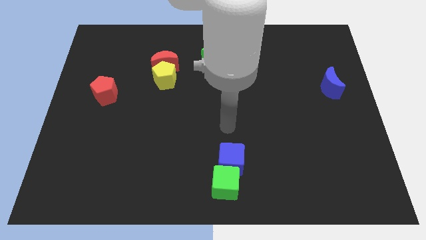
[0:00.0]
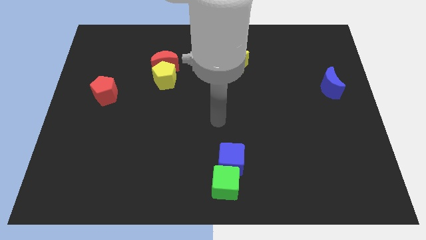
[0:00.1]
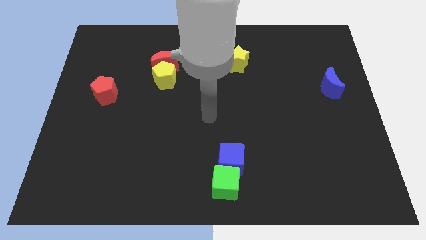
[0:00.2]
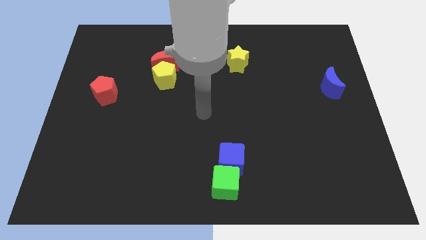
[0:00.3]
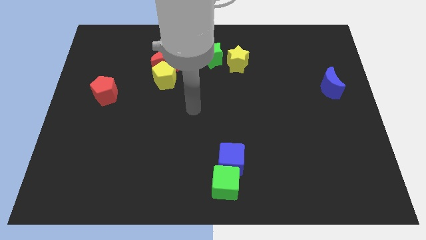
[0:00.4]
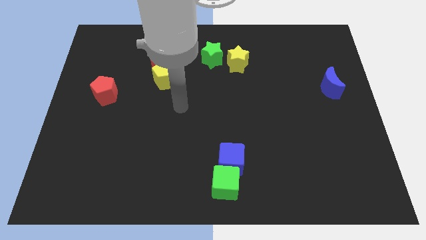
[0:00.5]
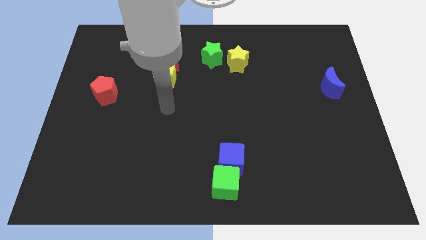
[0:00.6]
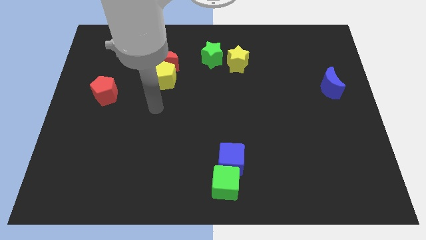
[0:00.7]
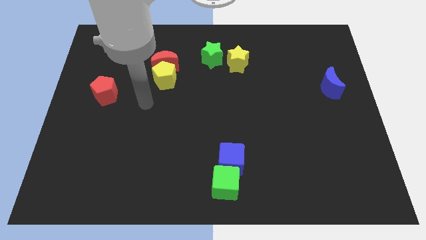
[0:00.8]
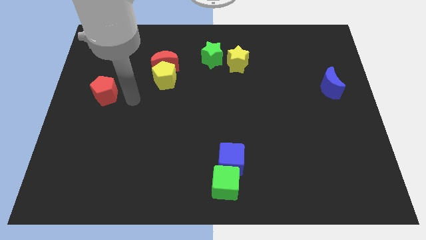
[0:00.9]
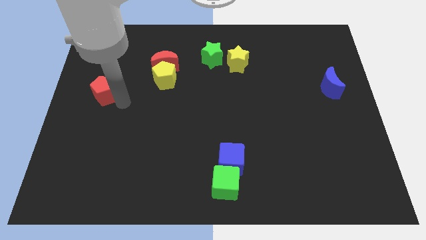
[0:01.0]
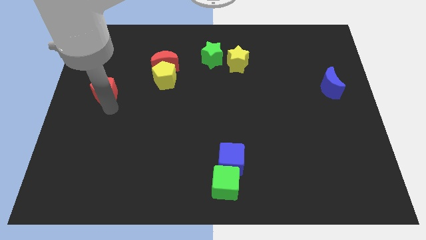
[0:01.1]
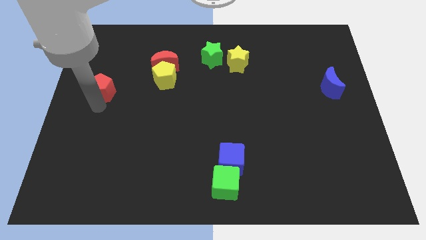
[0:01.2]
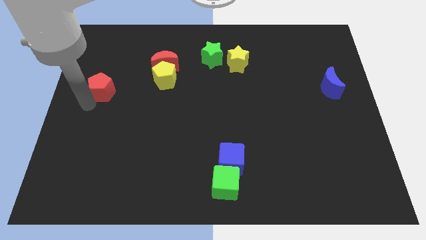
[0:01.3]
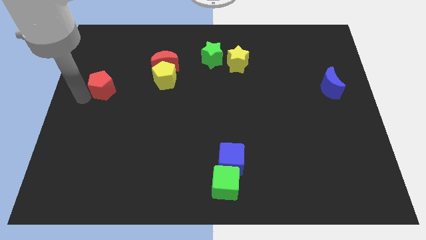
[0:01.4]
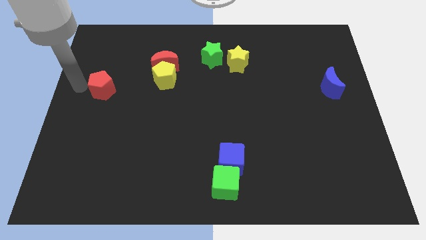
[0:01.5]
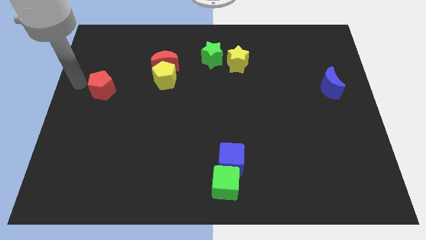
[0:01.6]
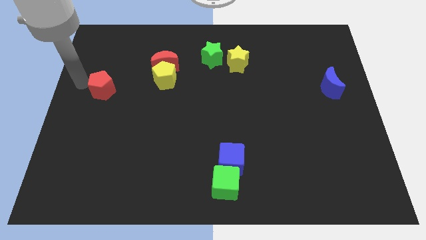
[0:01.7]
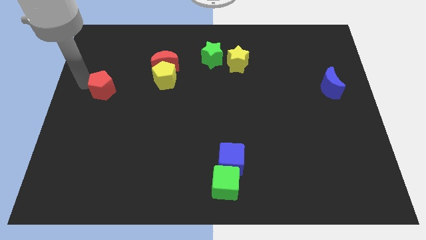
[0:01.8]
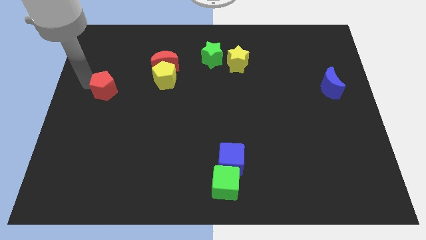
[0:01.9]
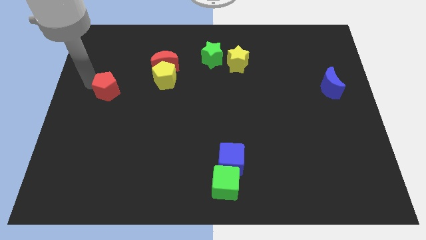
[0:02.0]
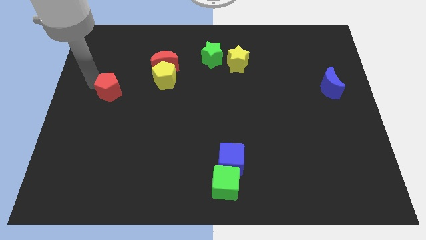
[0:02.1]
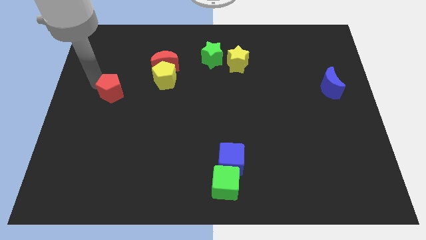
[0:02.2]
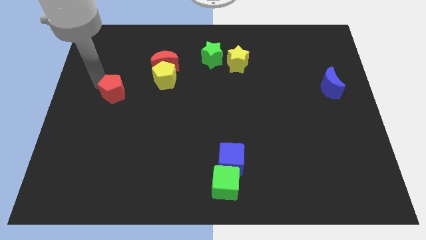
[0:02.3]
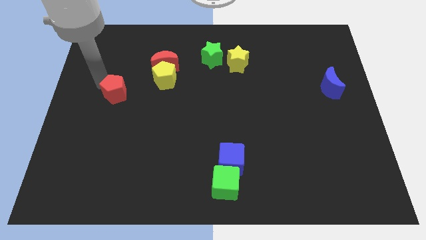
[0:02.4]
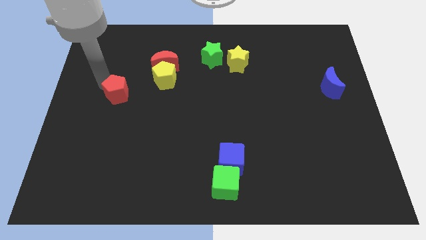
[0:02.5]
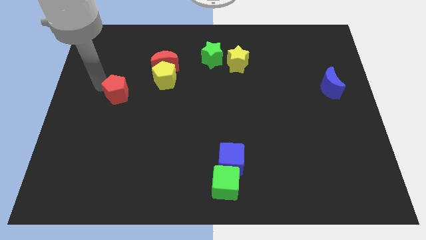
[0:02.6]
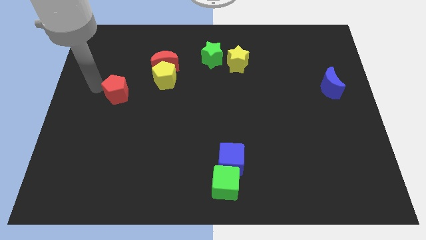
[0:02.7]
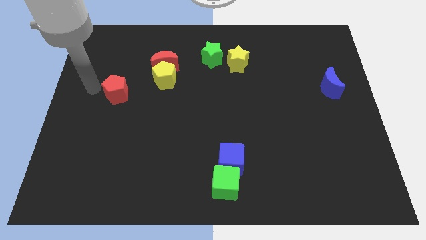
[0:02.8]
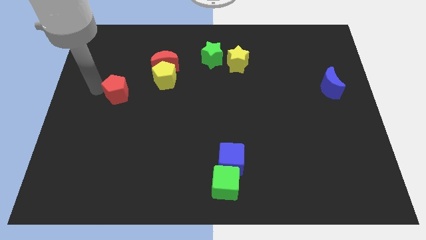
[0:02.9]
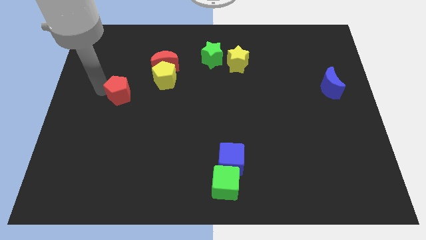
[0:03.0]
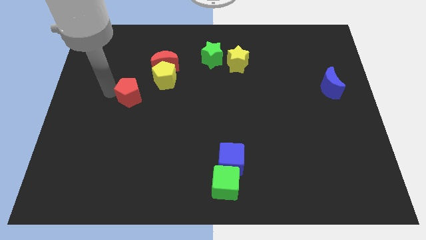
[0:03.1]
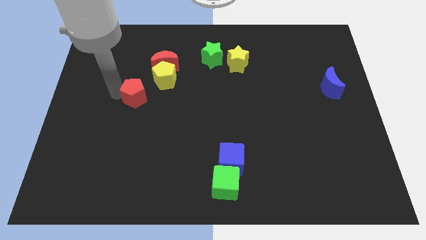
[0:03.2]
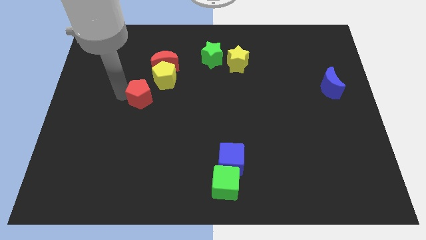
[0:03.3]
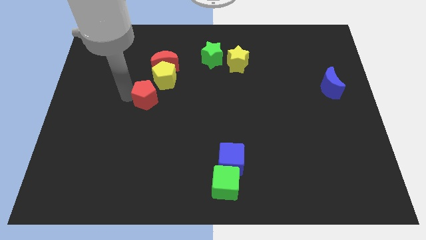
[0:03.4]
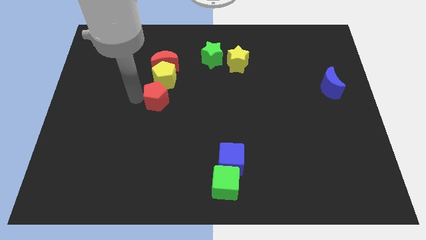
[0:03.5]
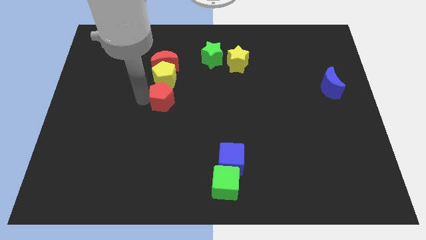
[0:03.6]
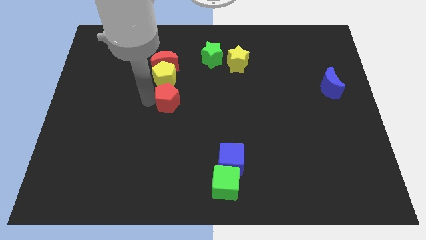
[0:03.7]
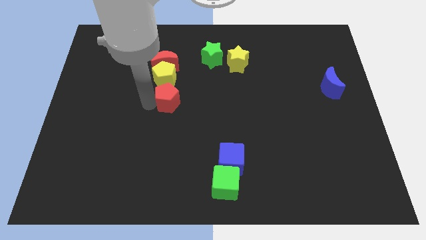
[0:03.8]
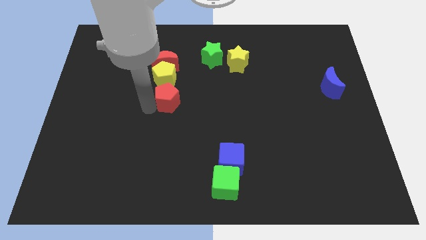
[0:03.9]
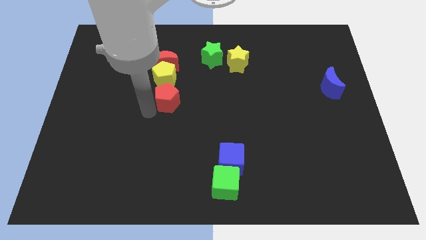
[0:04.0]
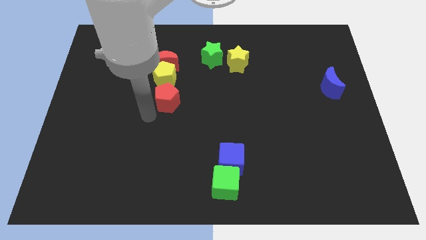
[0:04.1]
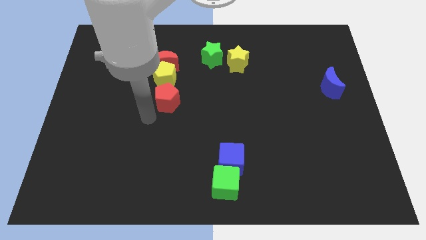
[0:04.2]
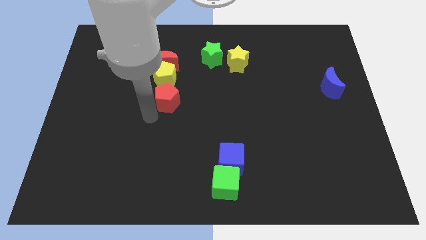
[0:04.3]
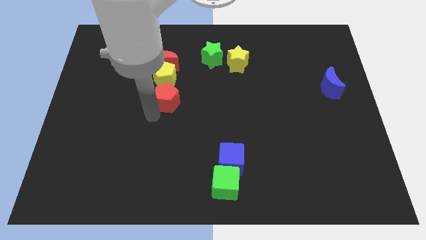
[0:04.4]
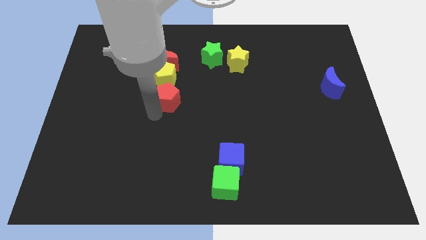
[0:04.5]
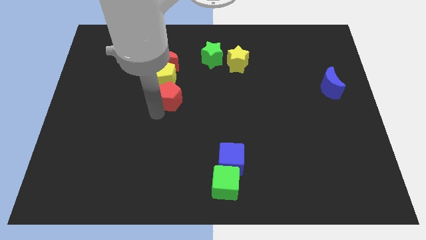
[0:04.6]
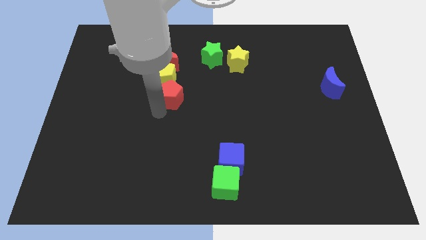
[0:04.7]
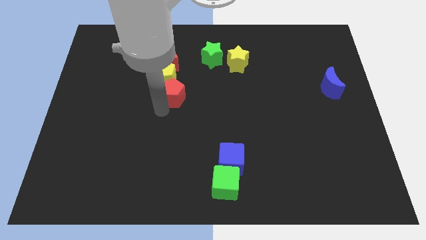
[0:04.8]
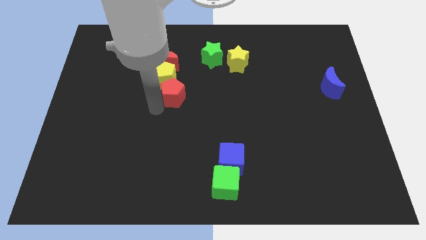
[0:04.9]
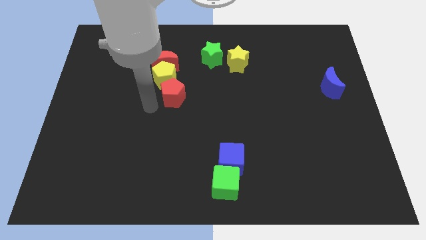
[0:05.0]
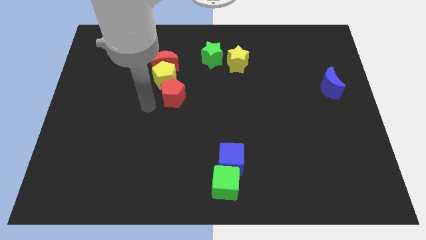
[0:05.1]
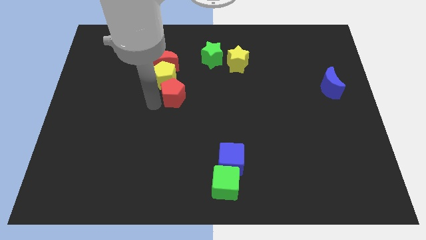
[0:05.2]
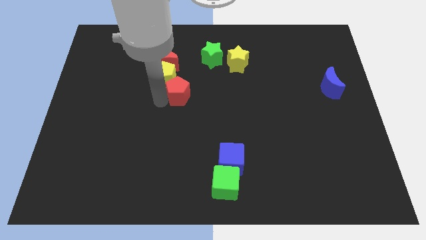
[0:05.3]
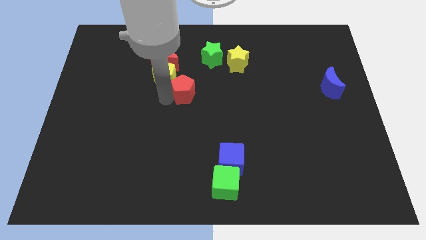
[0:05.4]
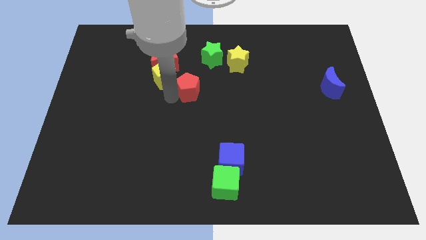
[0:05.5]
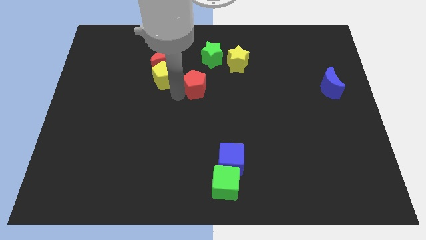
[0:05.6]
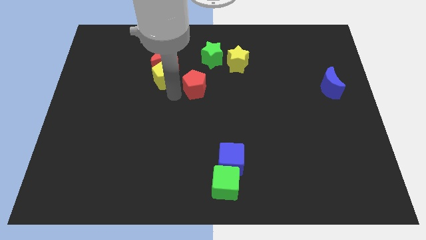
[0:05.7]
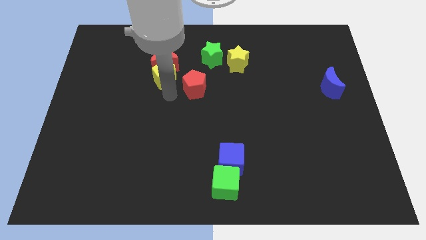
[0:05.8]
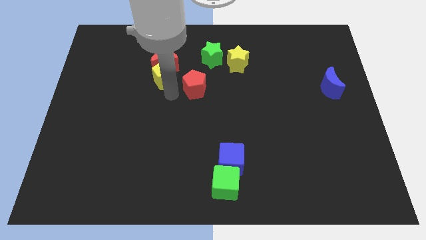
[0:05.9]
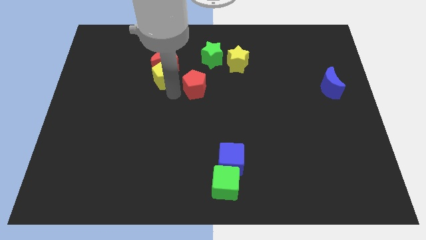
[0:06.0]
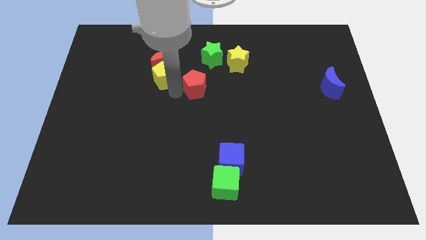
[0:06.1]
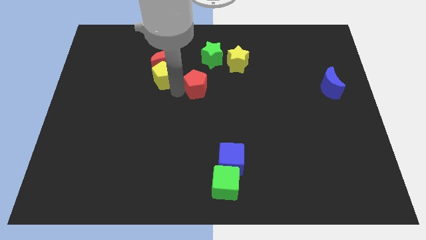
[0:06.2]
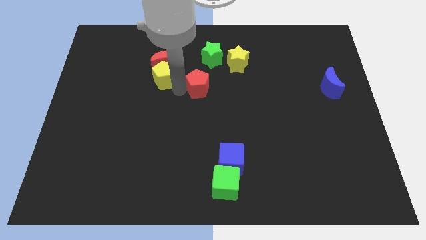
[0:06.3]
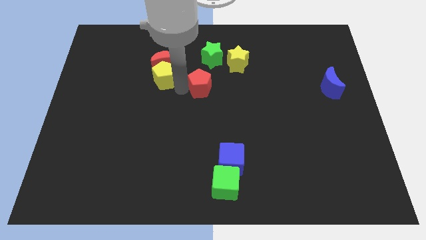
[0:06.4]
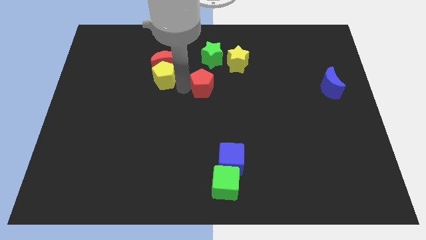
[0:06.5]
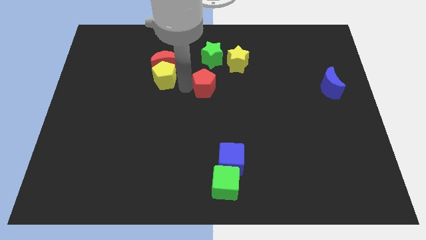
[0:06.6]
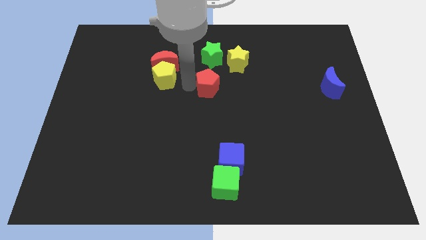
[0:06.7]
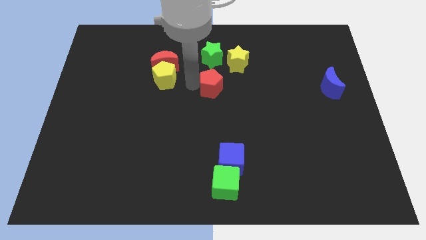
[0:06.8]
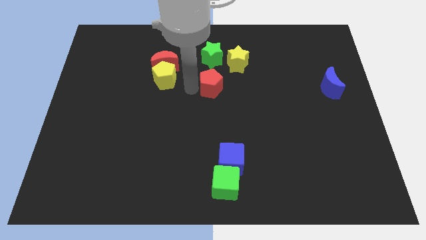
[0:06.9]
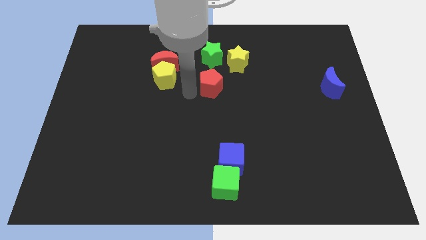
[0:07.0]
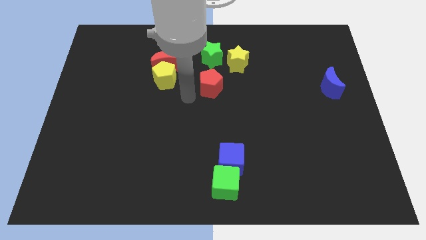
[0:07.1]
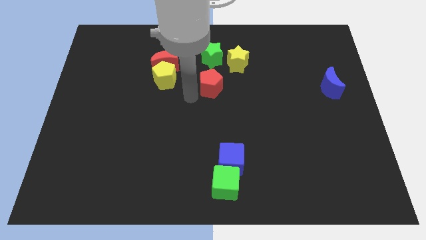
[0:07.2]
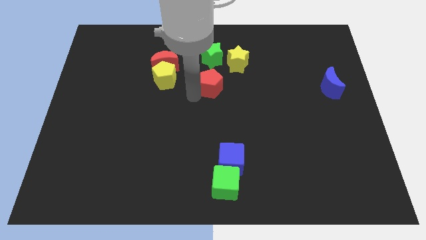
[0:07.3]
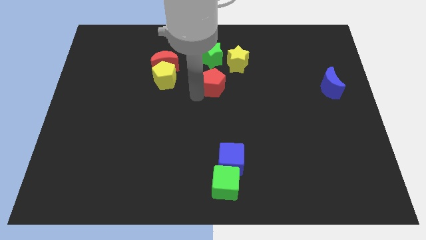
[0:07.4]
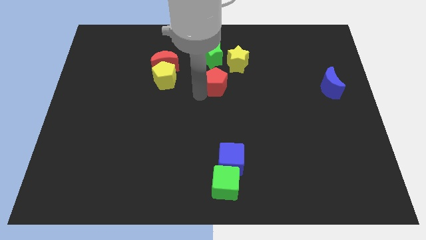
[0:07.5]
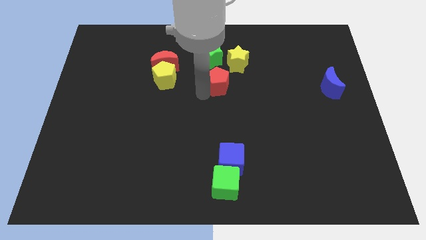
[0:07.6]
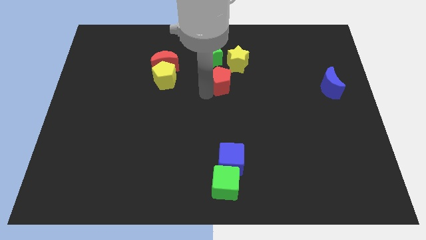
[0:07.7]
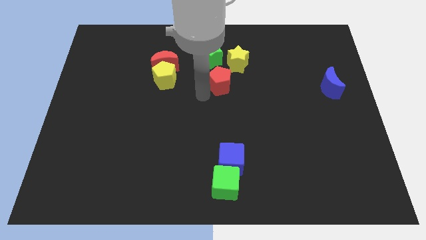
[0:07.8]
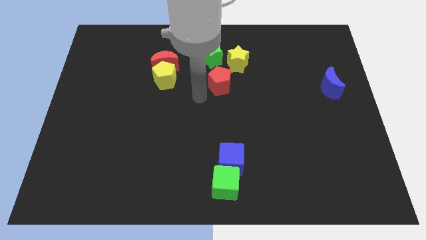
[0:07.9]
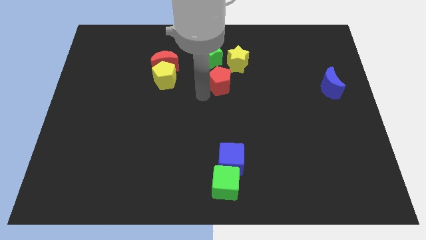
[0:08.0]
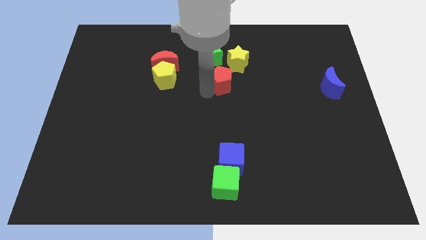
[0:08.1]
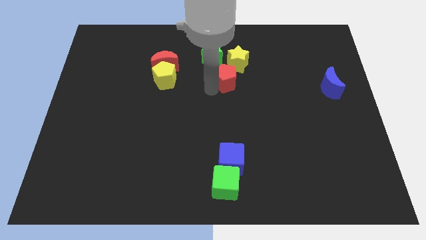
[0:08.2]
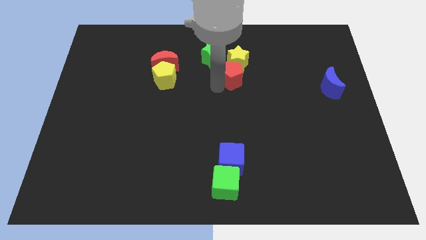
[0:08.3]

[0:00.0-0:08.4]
put the red pentagon to the yellow star
